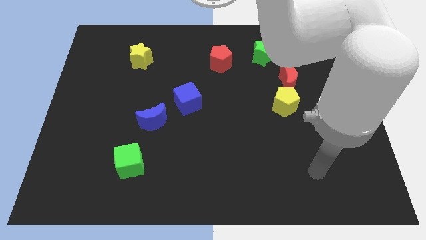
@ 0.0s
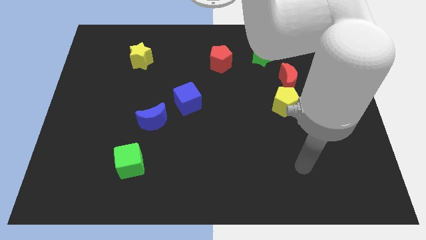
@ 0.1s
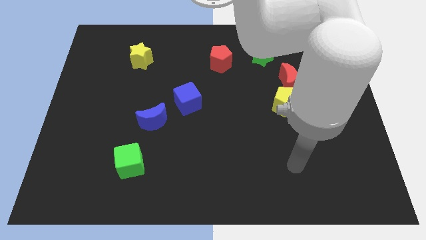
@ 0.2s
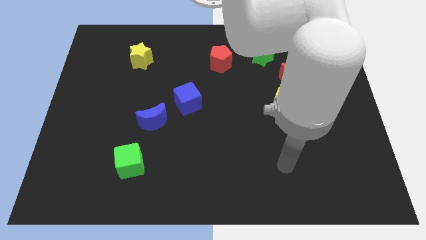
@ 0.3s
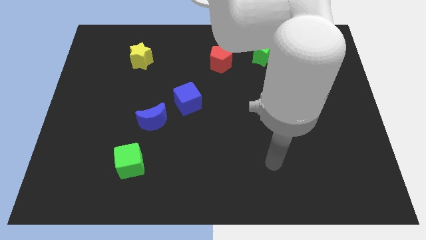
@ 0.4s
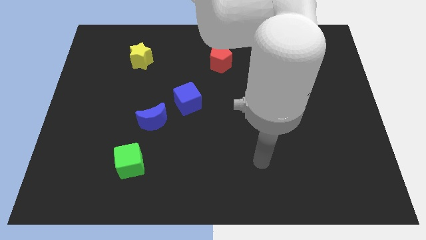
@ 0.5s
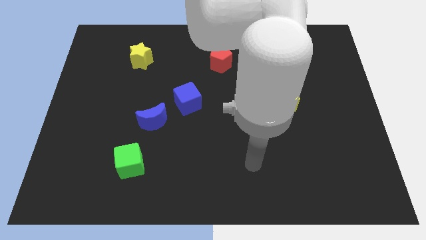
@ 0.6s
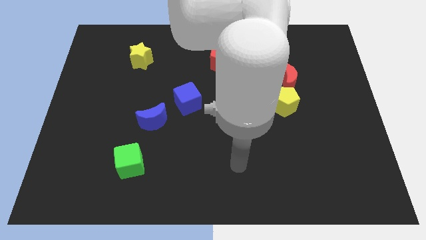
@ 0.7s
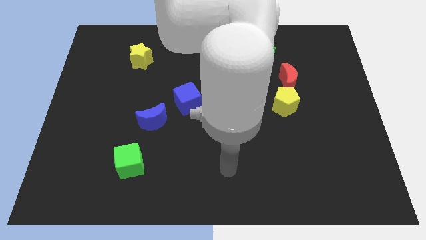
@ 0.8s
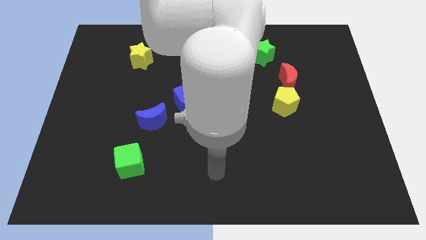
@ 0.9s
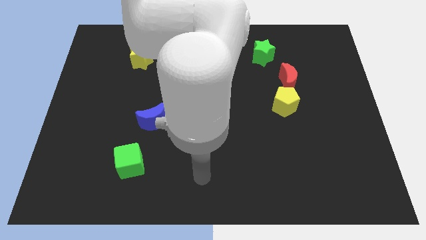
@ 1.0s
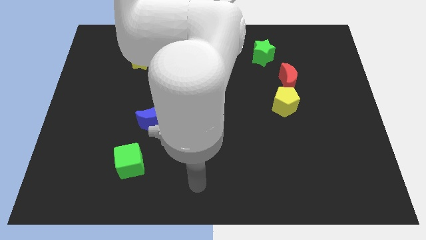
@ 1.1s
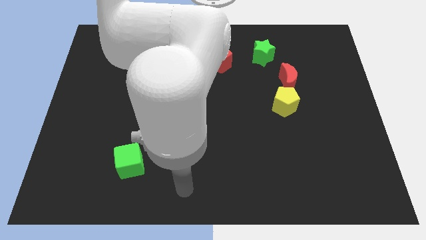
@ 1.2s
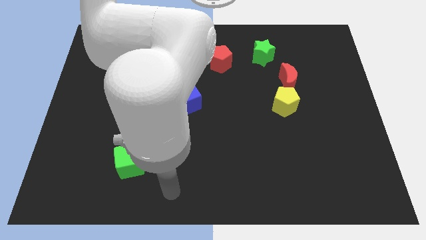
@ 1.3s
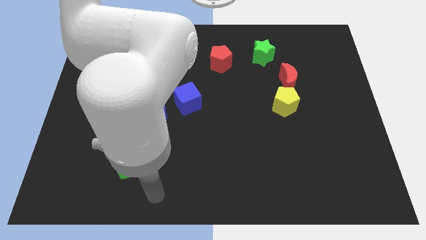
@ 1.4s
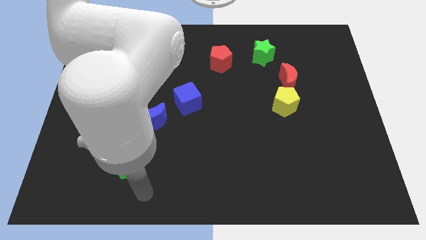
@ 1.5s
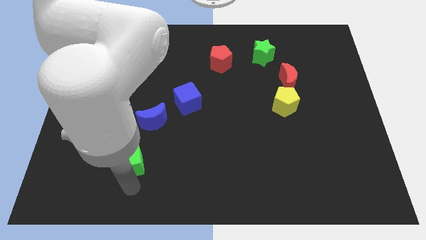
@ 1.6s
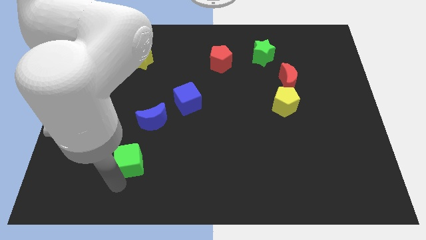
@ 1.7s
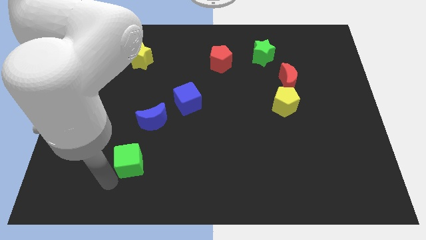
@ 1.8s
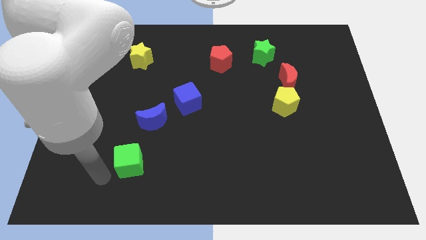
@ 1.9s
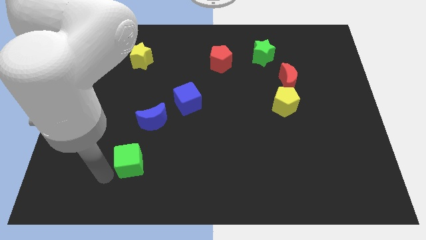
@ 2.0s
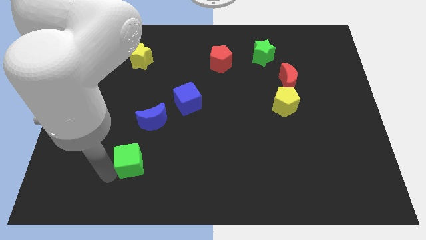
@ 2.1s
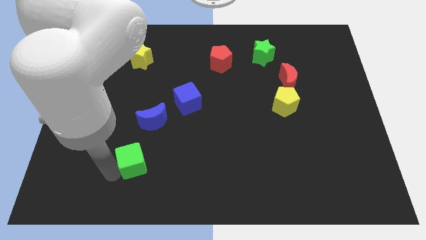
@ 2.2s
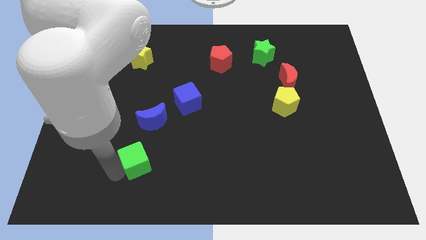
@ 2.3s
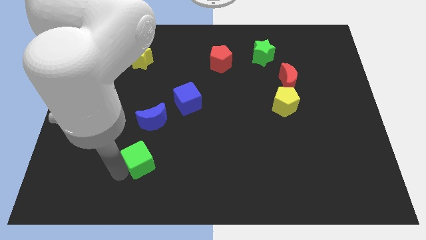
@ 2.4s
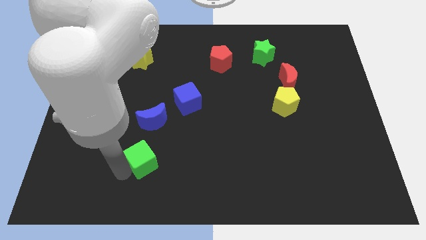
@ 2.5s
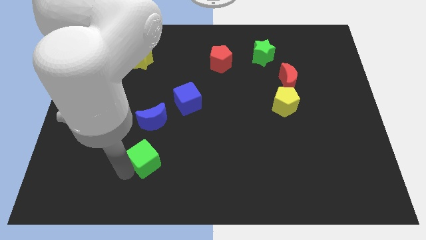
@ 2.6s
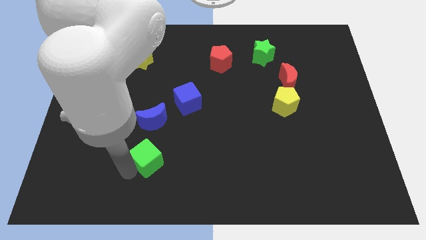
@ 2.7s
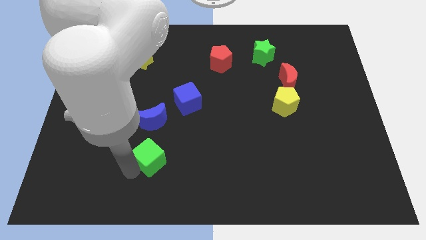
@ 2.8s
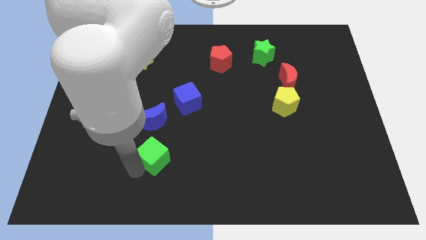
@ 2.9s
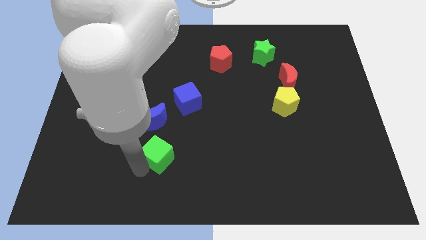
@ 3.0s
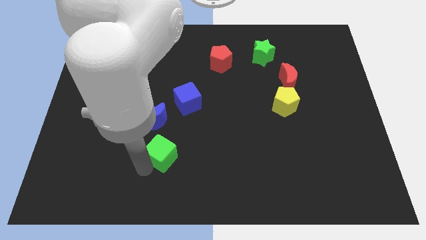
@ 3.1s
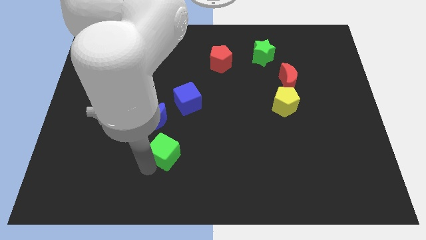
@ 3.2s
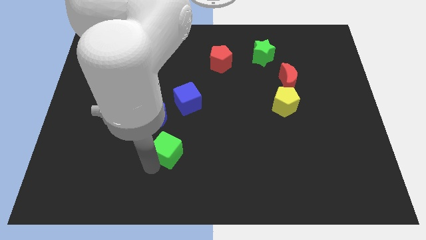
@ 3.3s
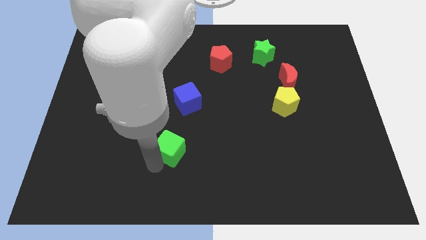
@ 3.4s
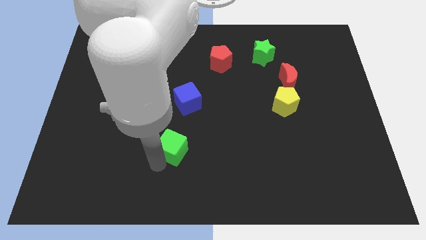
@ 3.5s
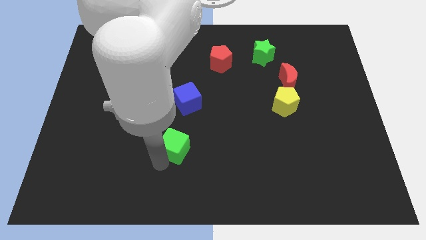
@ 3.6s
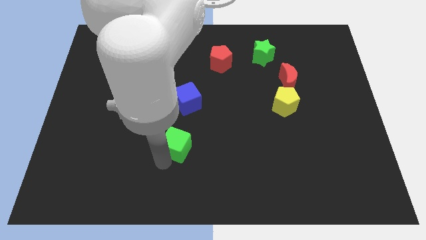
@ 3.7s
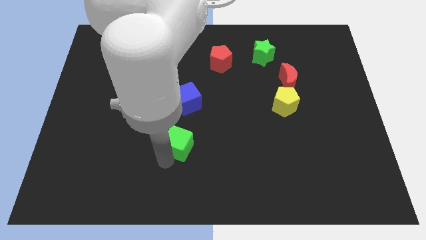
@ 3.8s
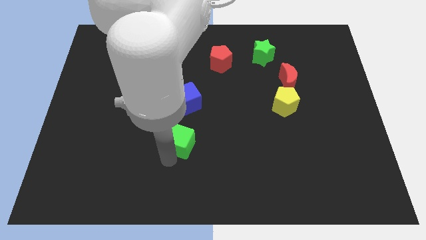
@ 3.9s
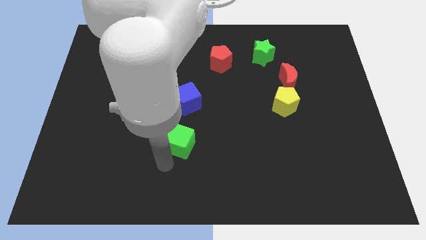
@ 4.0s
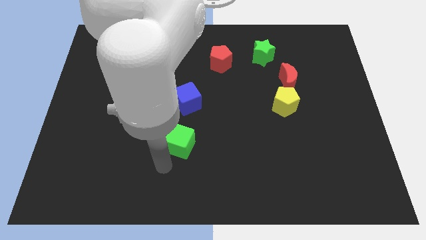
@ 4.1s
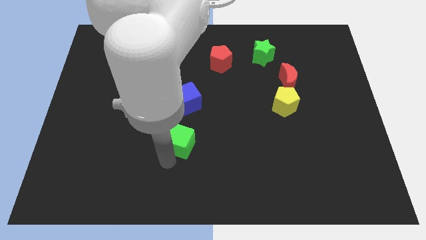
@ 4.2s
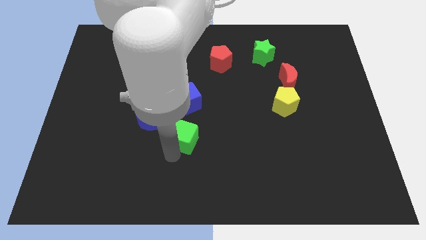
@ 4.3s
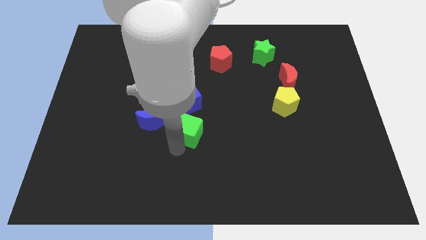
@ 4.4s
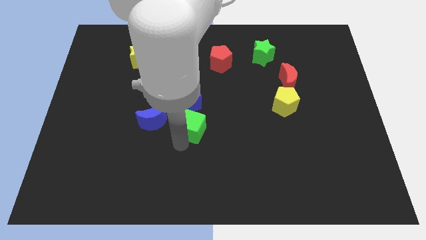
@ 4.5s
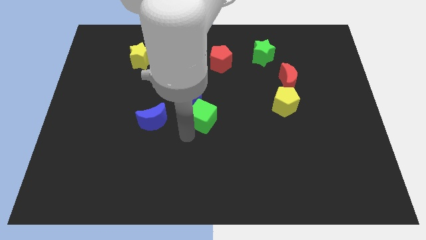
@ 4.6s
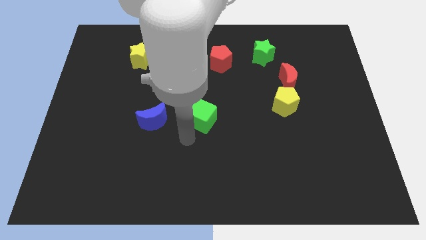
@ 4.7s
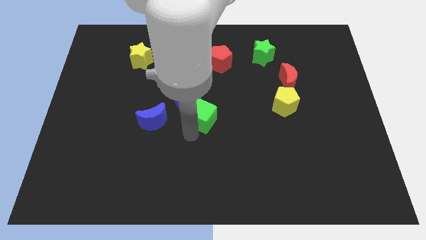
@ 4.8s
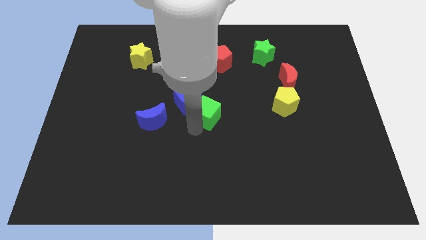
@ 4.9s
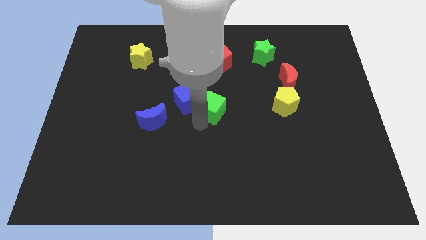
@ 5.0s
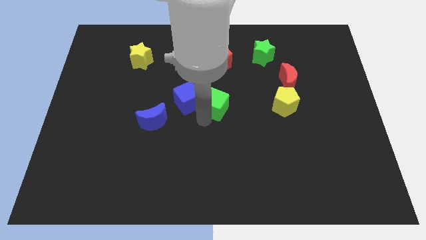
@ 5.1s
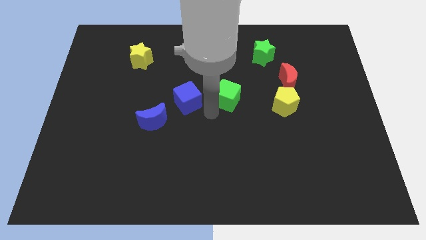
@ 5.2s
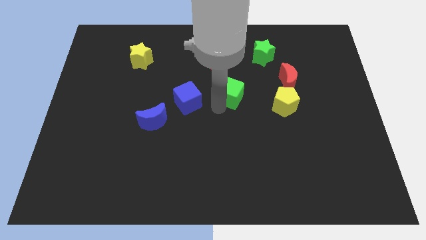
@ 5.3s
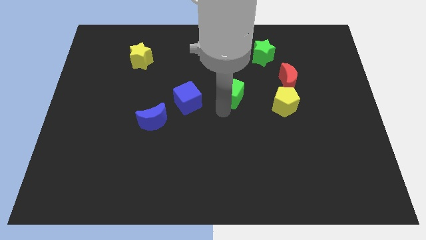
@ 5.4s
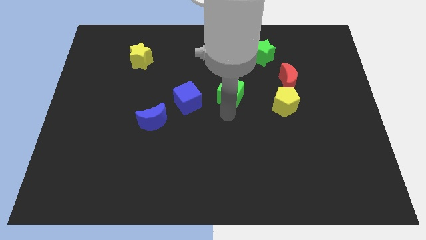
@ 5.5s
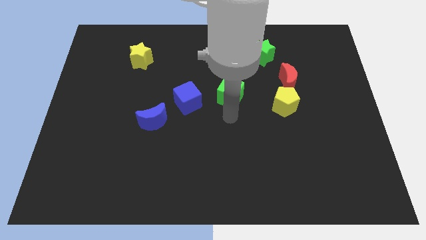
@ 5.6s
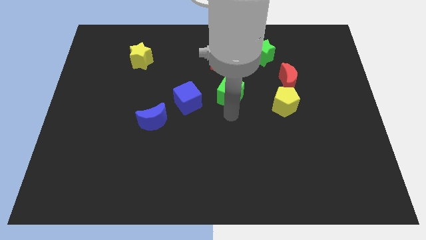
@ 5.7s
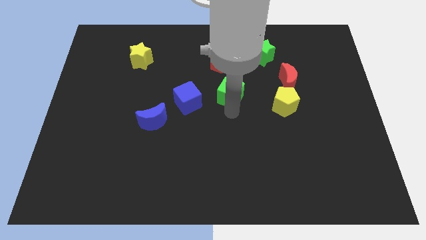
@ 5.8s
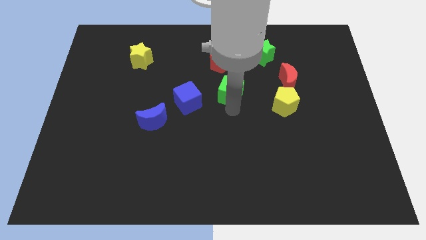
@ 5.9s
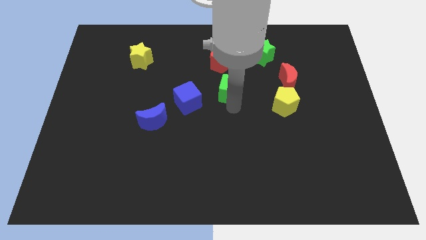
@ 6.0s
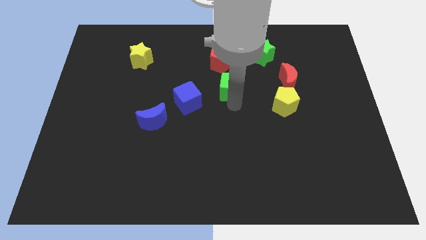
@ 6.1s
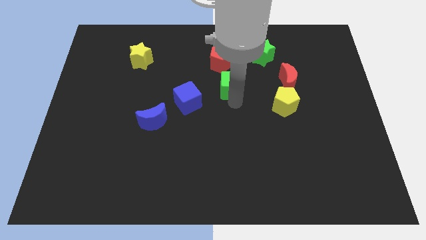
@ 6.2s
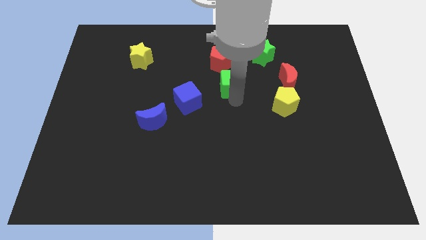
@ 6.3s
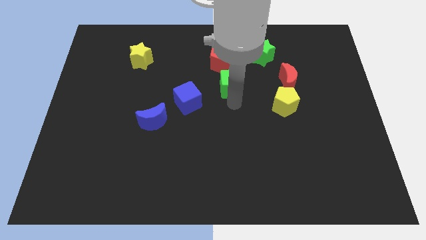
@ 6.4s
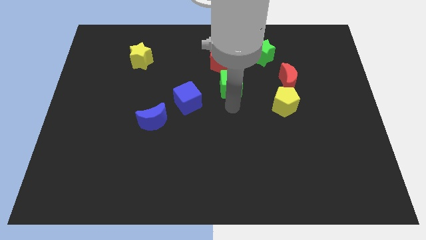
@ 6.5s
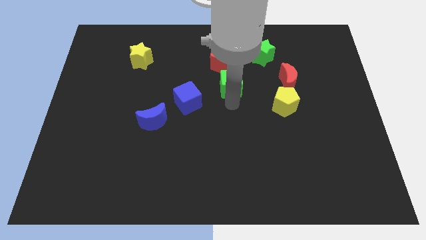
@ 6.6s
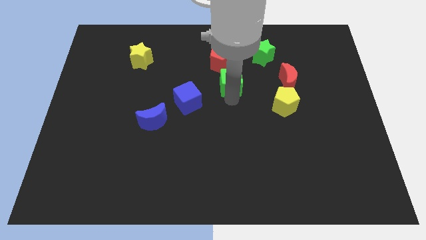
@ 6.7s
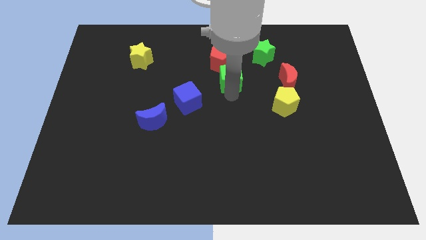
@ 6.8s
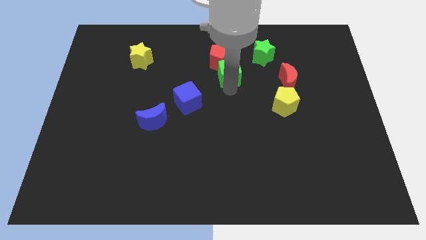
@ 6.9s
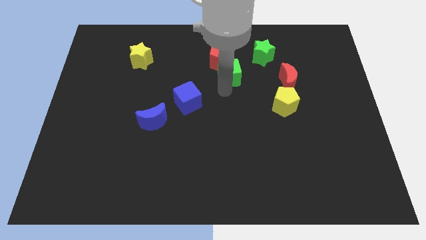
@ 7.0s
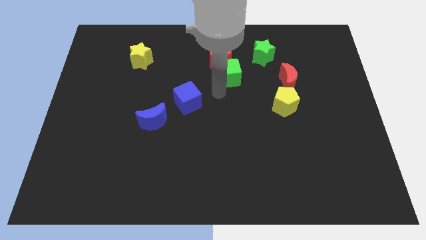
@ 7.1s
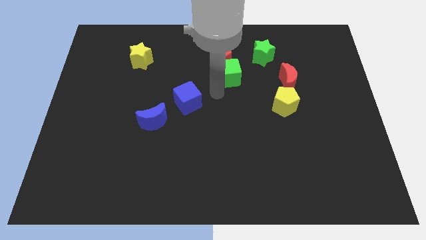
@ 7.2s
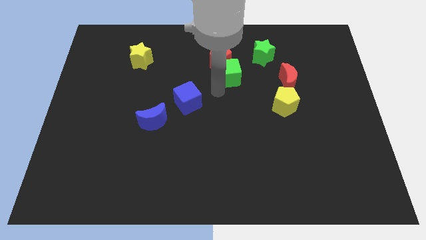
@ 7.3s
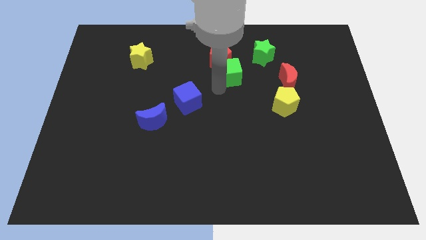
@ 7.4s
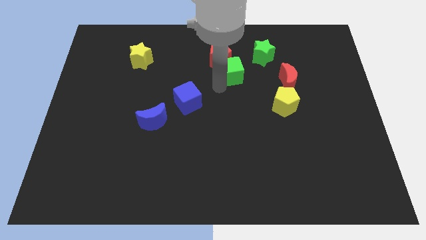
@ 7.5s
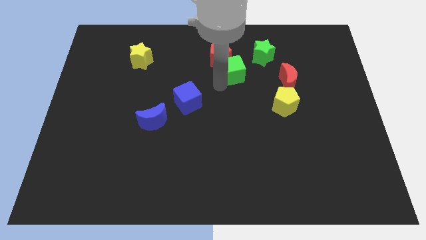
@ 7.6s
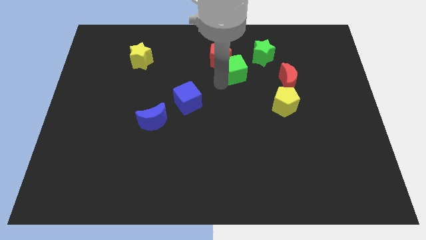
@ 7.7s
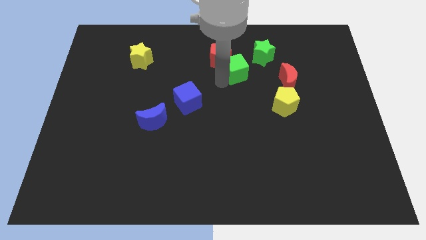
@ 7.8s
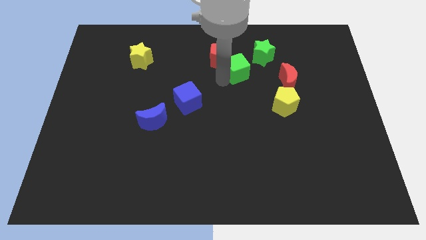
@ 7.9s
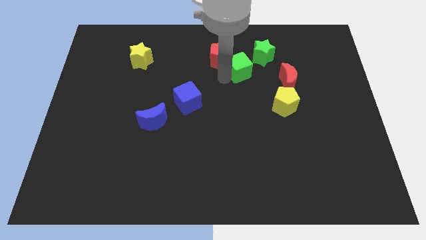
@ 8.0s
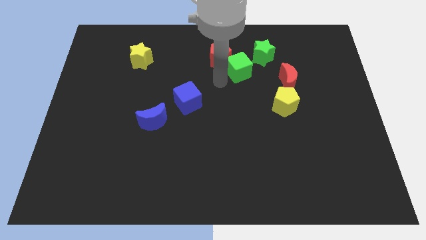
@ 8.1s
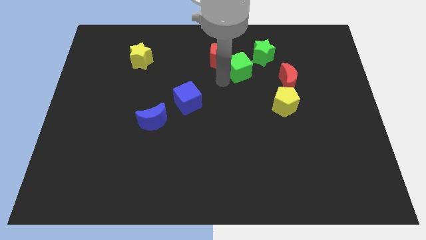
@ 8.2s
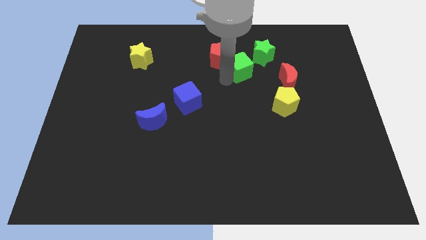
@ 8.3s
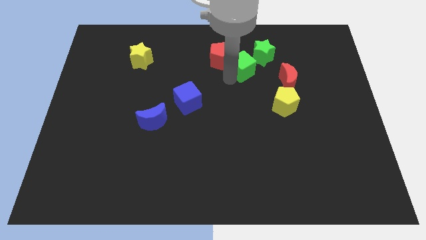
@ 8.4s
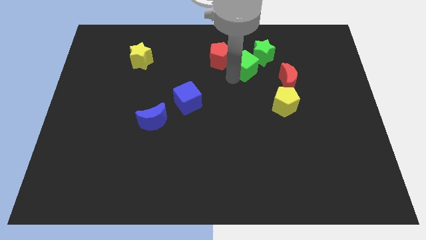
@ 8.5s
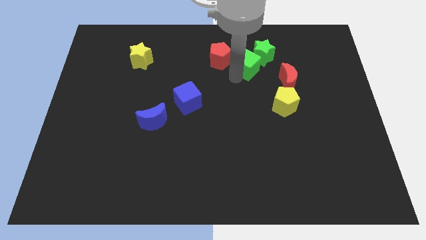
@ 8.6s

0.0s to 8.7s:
put the green cube close to the green star
